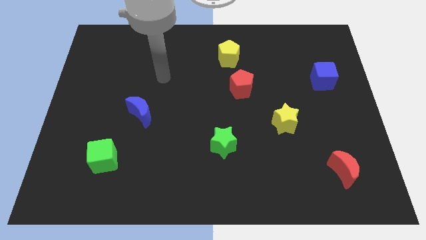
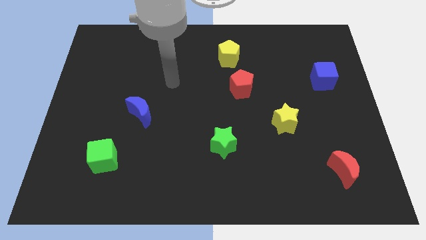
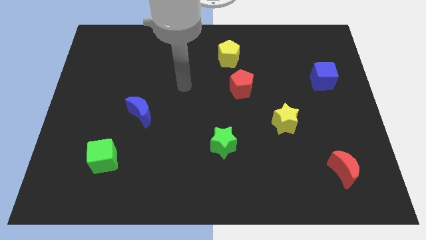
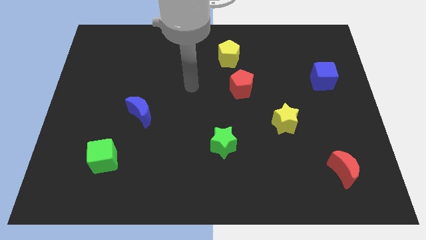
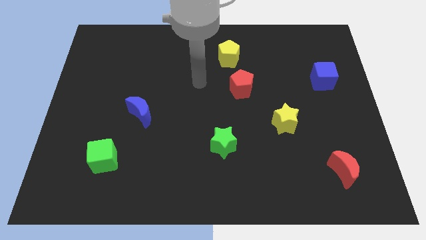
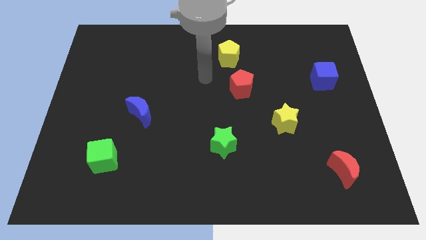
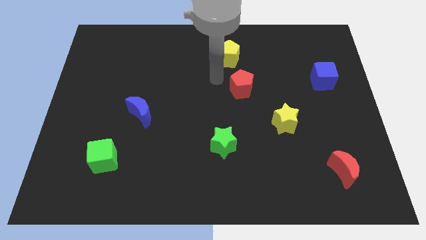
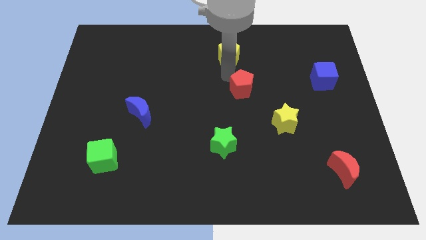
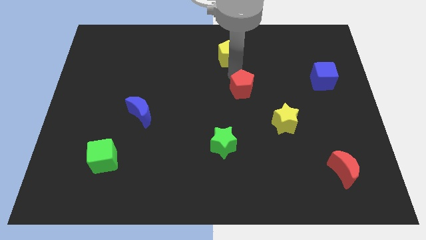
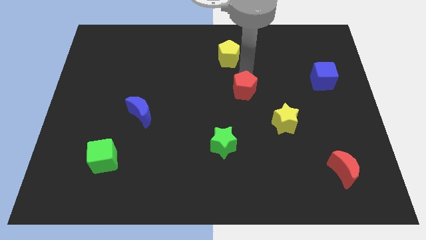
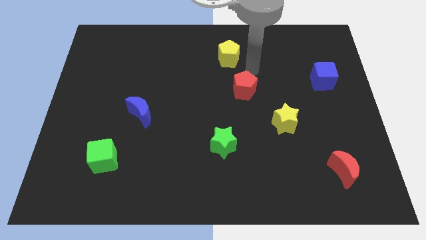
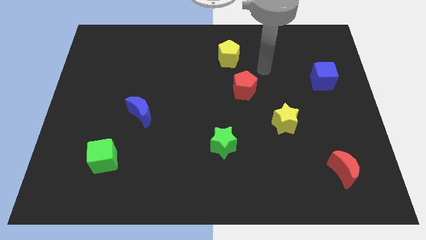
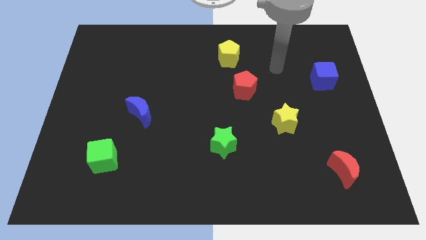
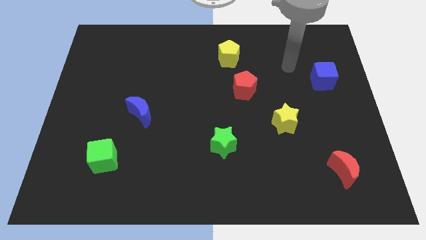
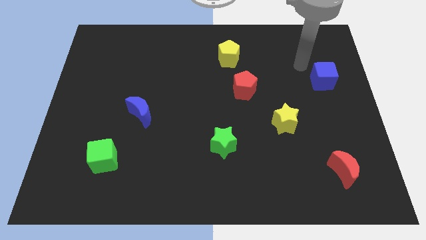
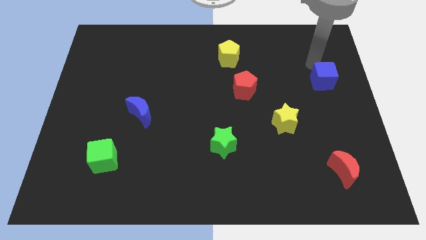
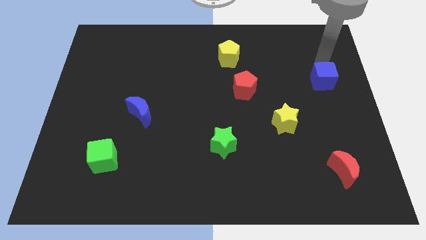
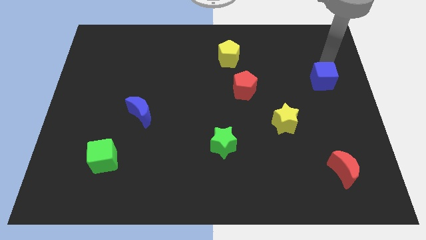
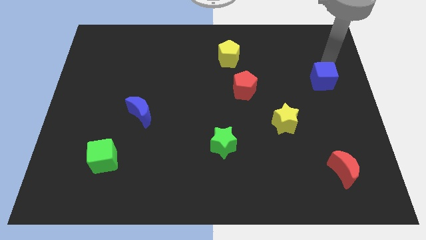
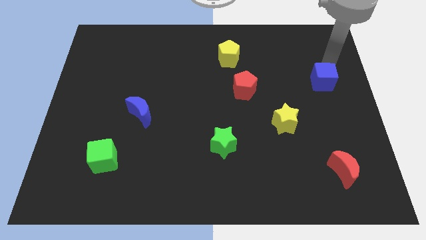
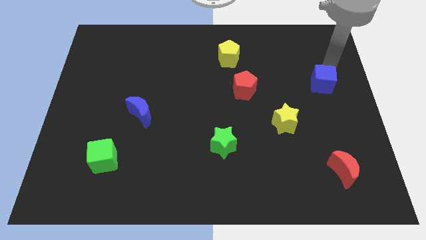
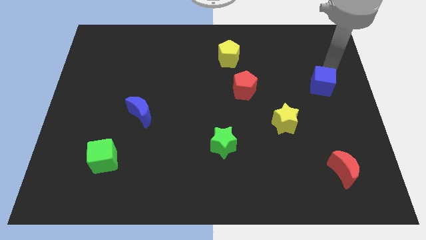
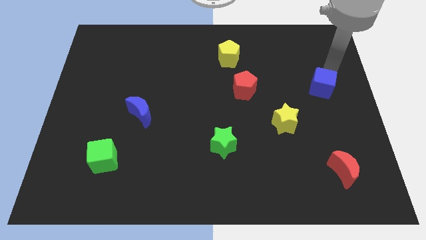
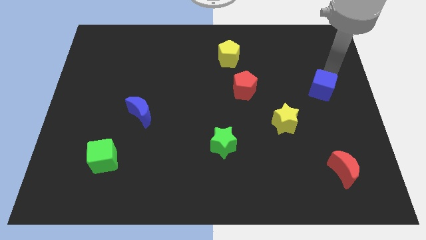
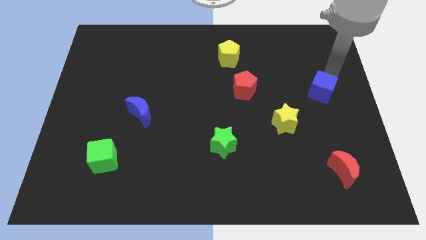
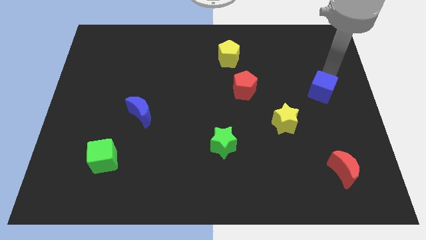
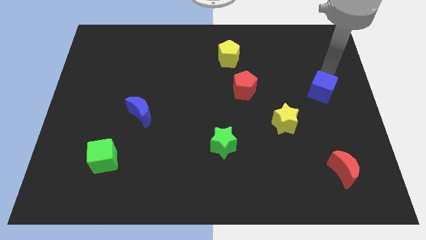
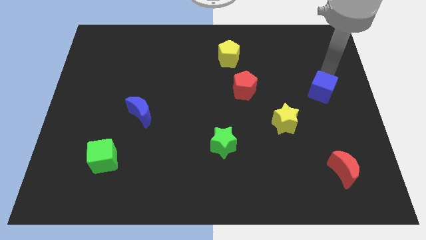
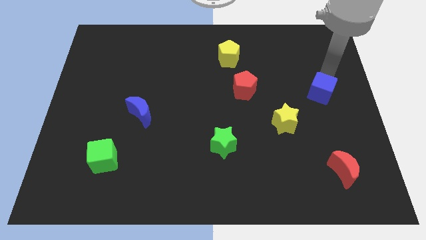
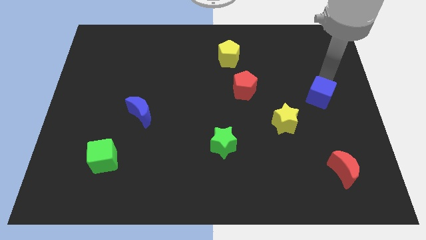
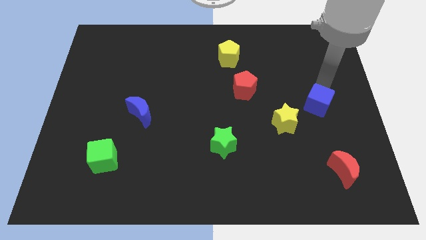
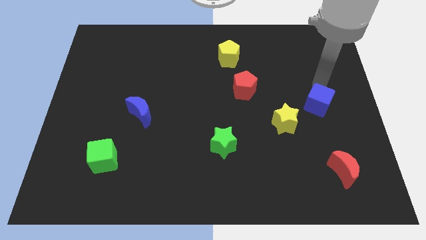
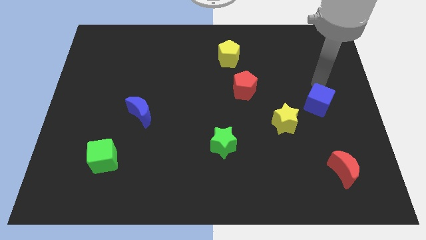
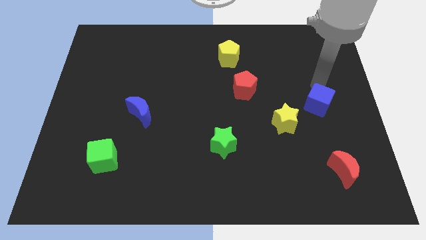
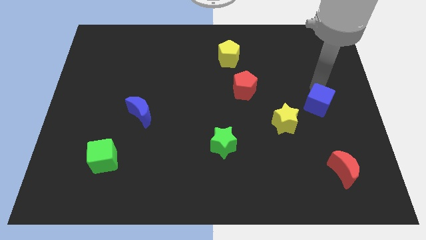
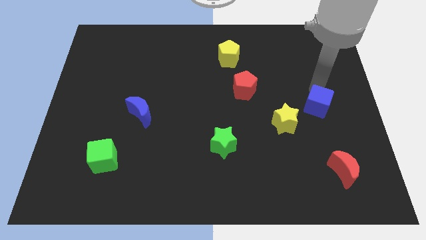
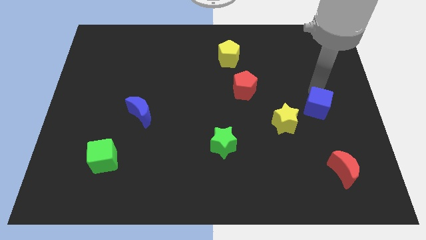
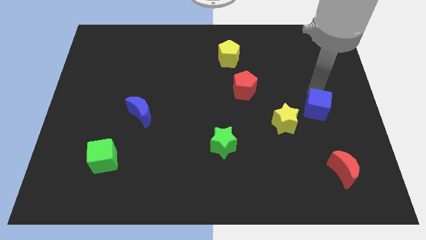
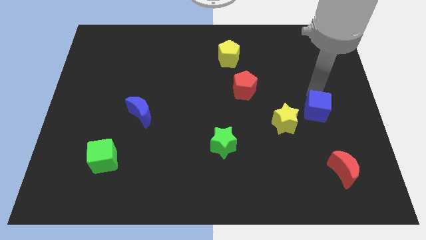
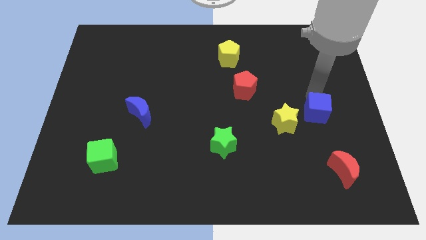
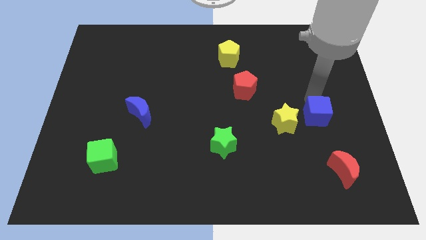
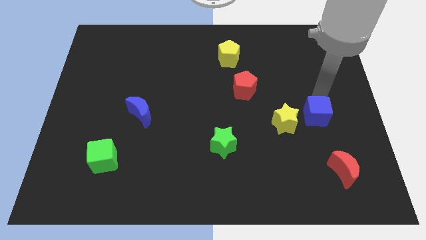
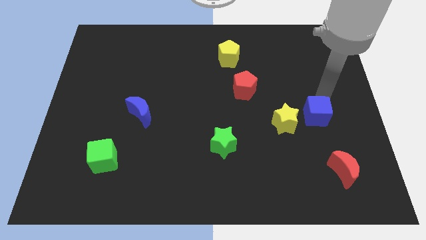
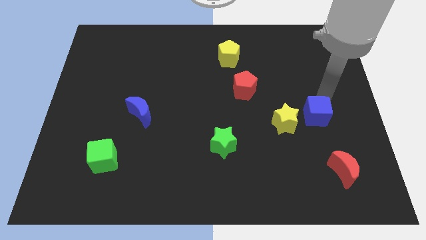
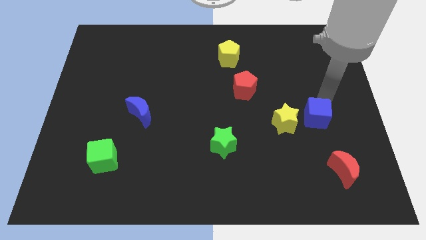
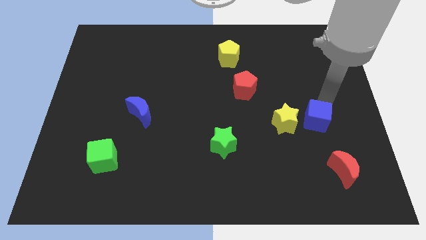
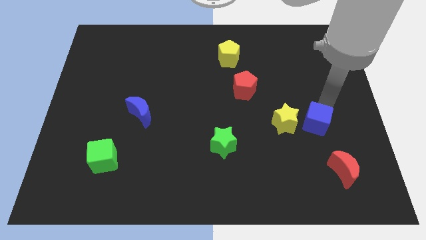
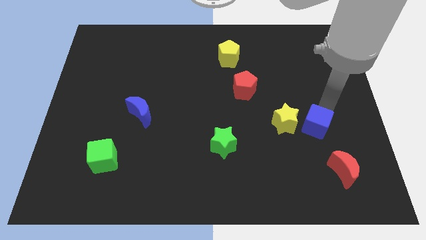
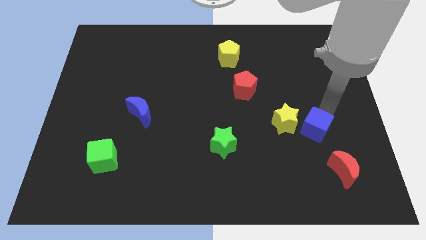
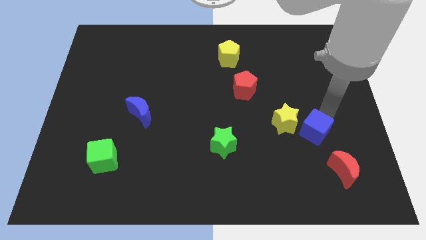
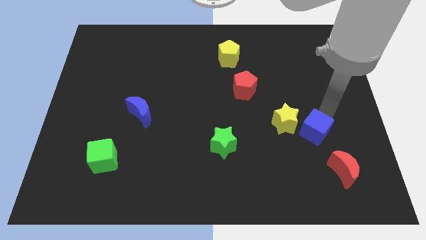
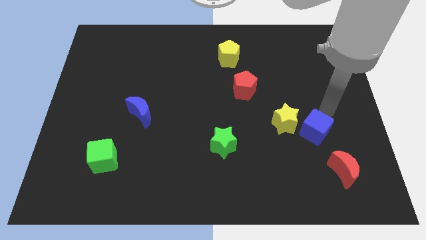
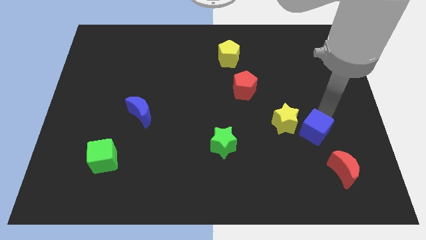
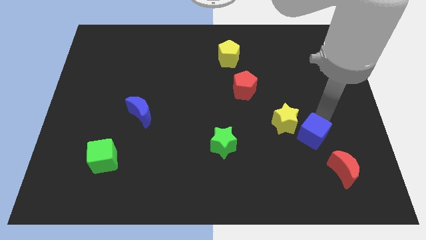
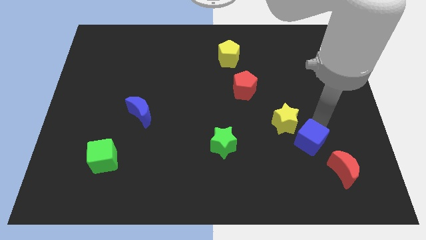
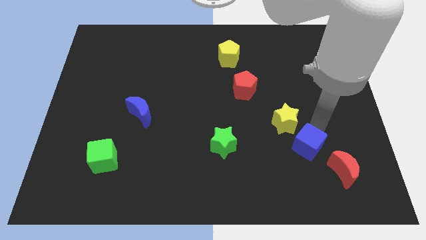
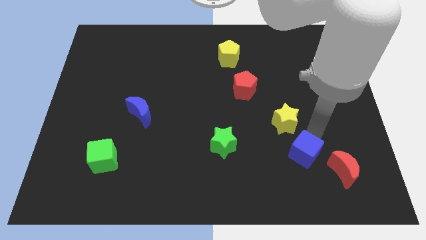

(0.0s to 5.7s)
push the blue cube to the left side of the red moon

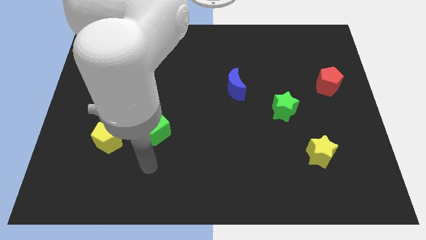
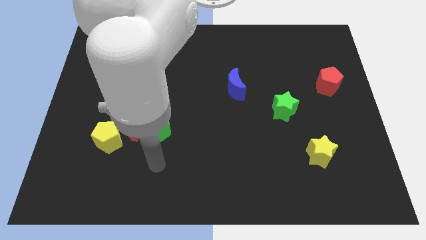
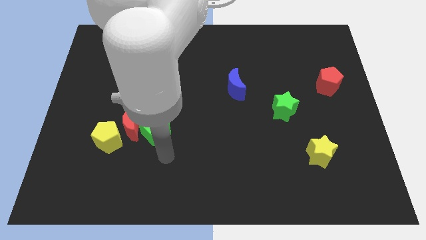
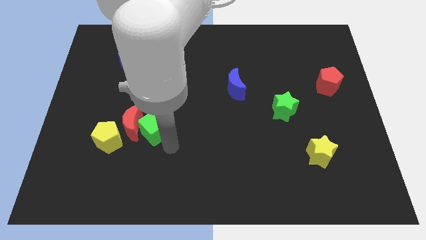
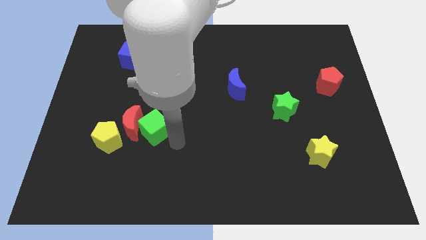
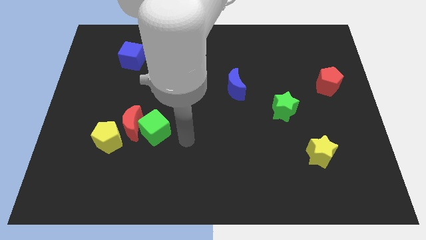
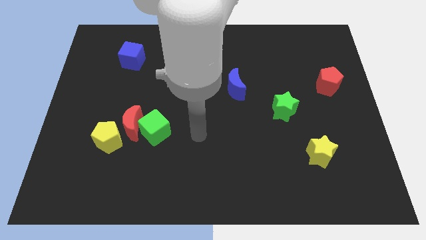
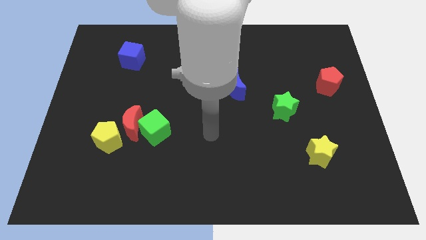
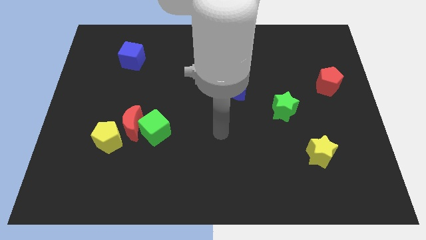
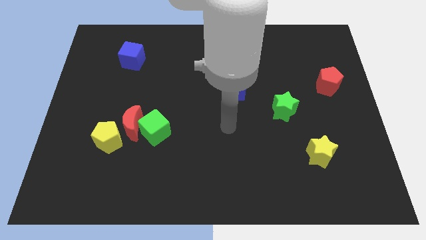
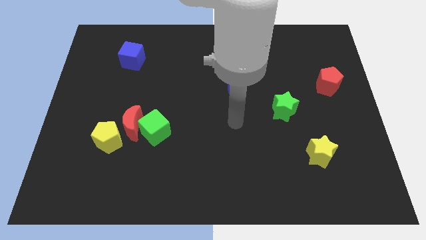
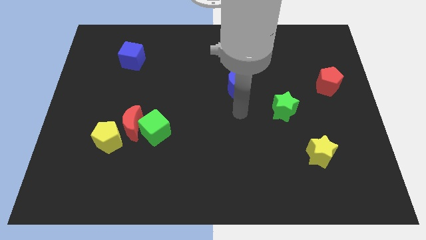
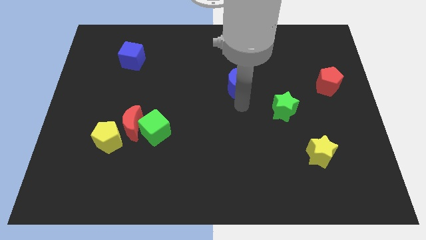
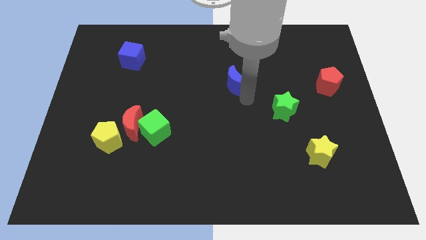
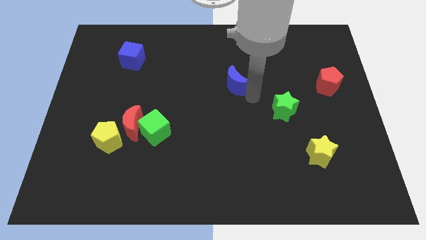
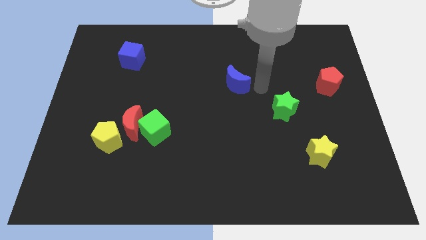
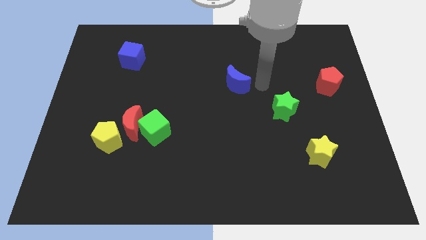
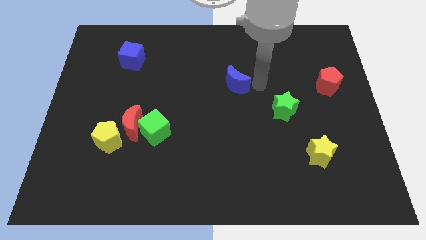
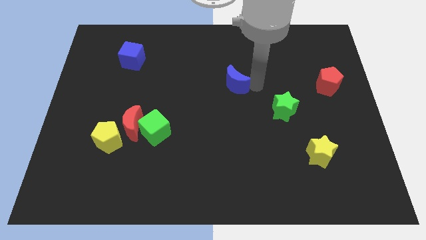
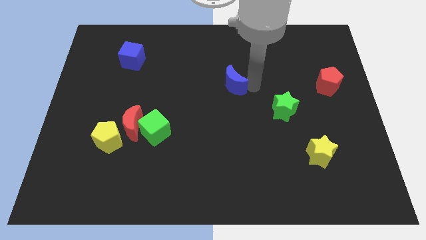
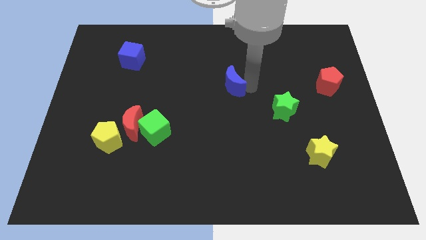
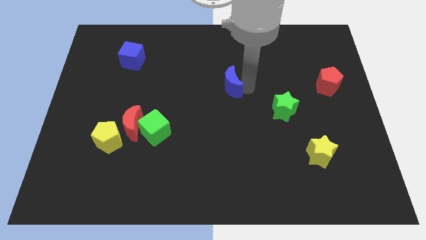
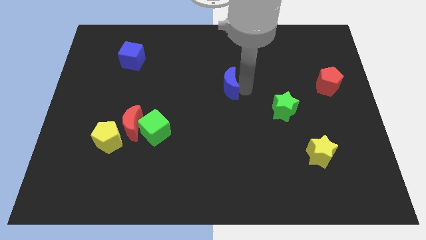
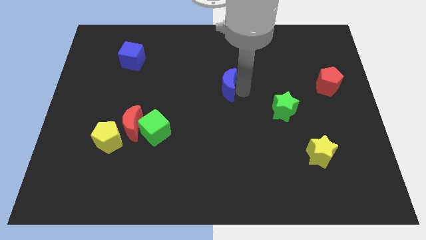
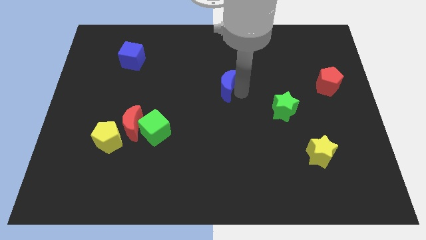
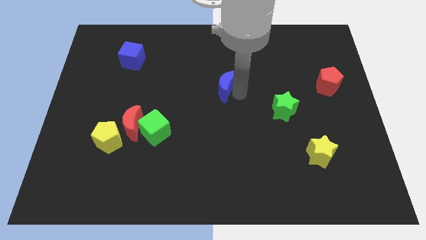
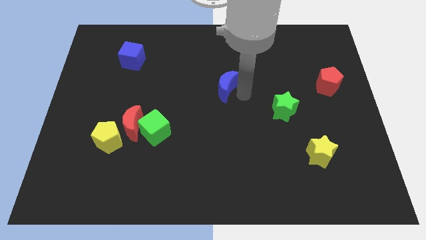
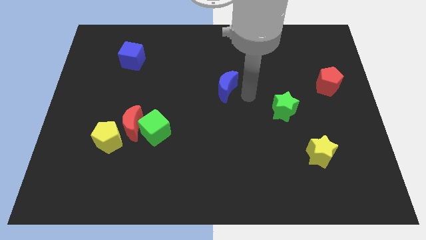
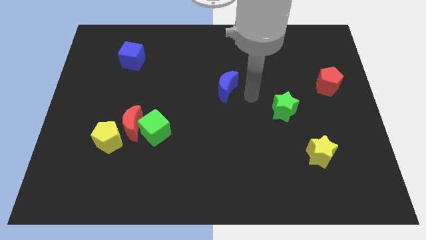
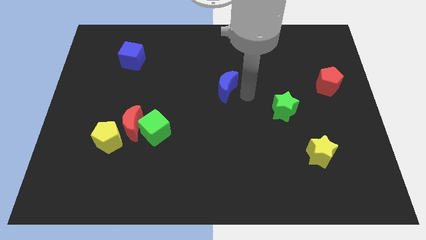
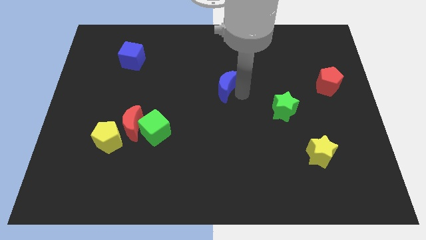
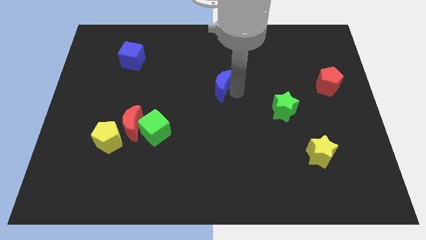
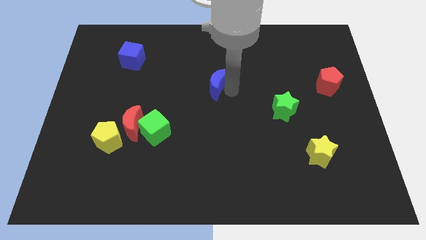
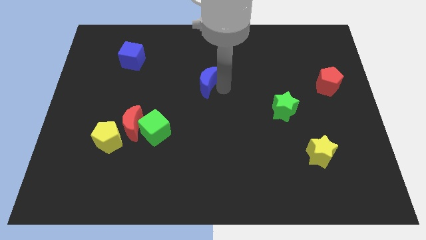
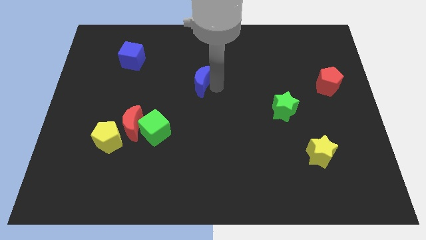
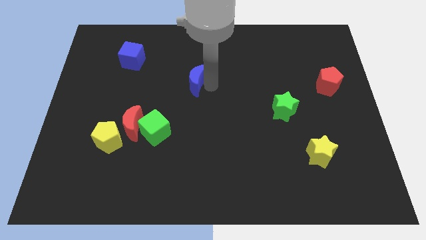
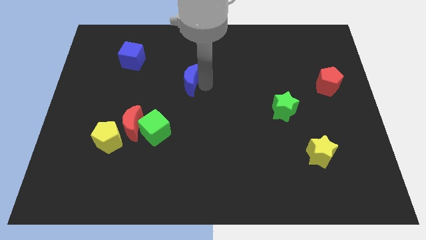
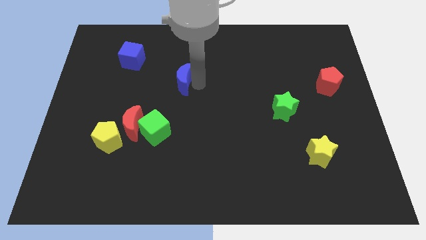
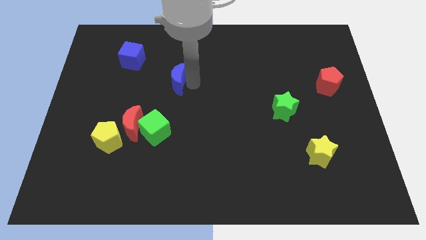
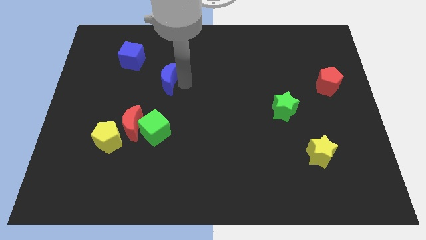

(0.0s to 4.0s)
put the blue moon diagonally down and to the right of the blue cube
